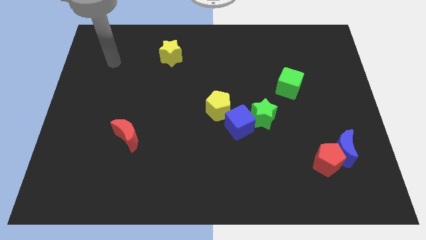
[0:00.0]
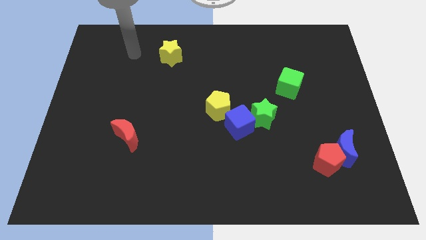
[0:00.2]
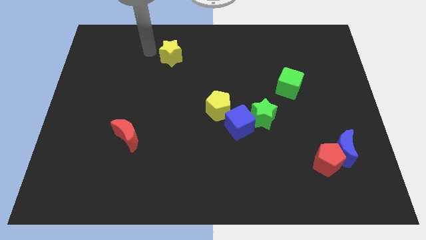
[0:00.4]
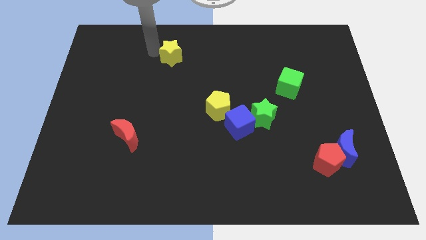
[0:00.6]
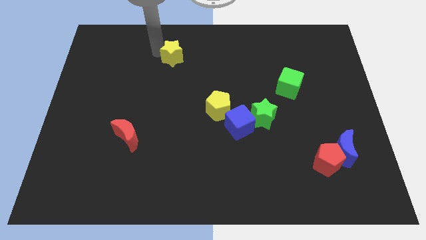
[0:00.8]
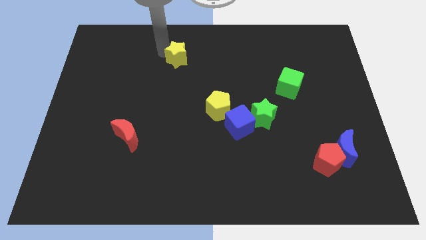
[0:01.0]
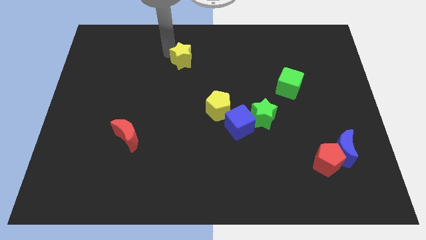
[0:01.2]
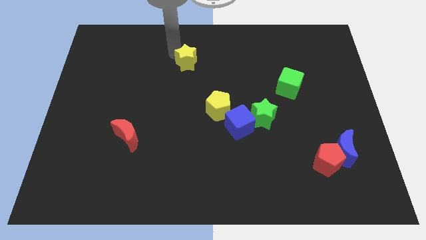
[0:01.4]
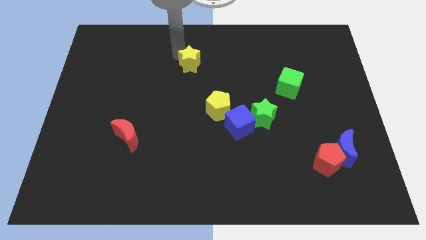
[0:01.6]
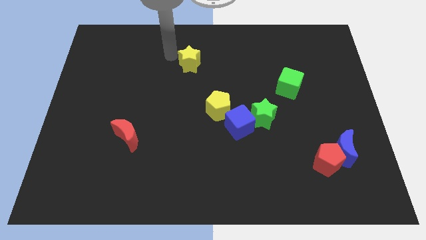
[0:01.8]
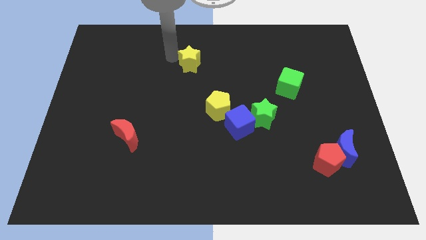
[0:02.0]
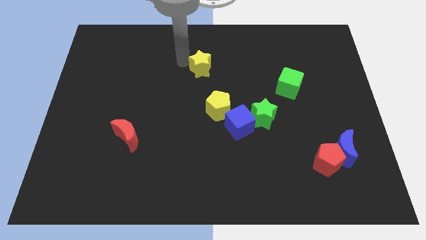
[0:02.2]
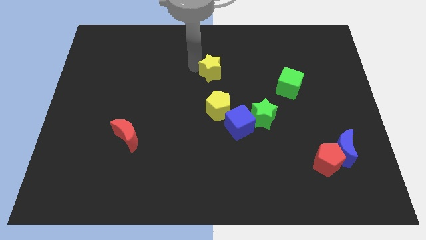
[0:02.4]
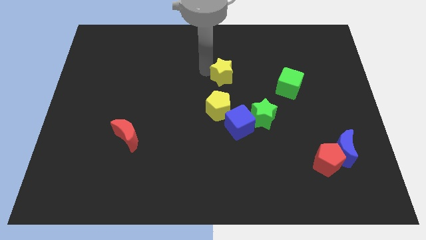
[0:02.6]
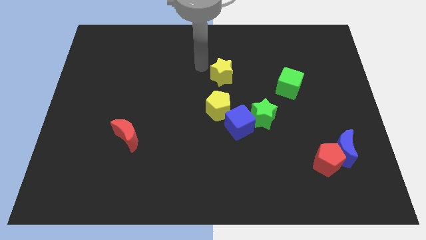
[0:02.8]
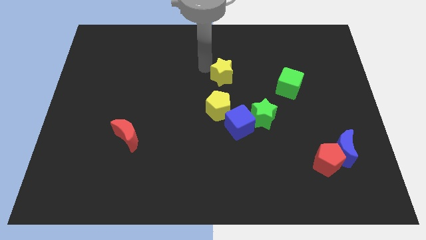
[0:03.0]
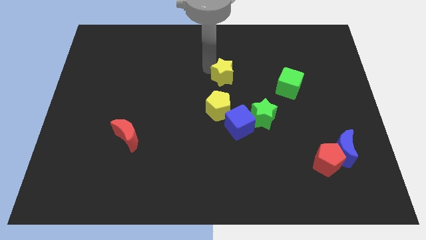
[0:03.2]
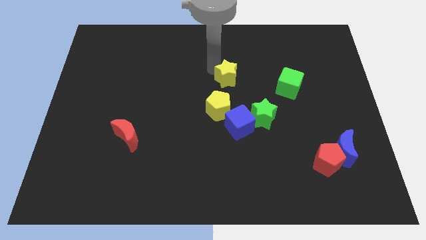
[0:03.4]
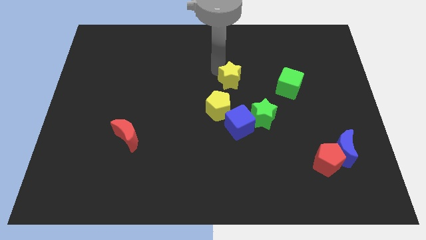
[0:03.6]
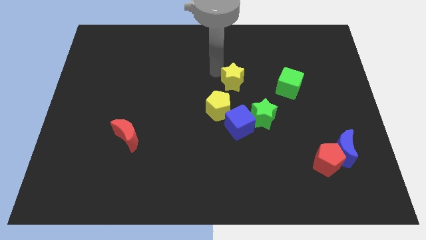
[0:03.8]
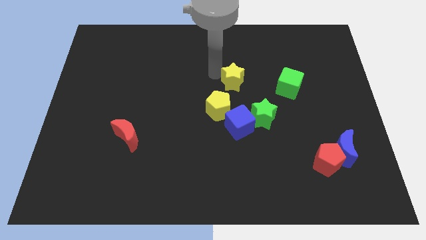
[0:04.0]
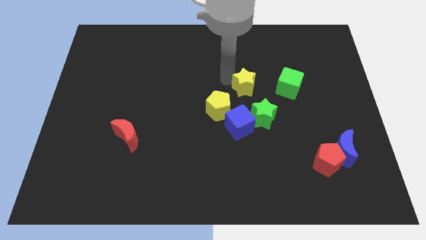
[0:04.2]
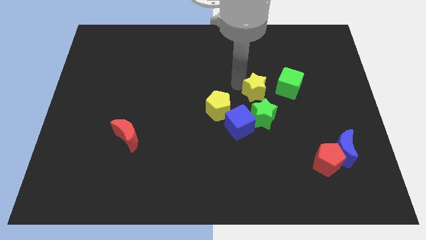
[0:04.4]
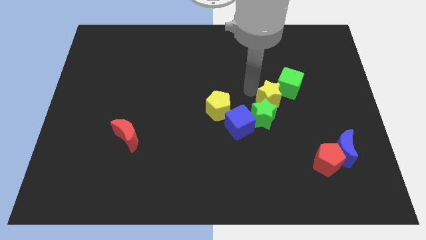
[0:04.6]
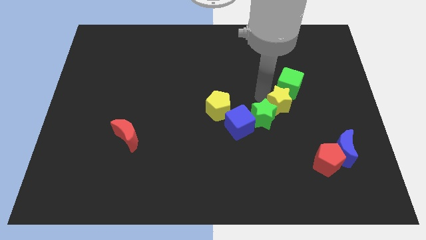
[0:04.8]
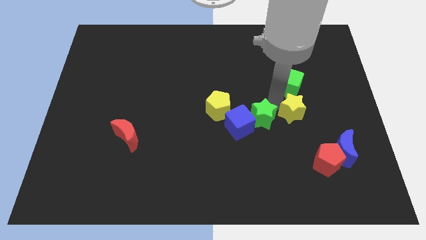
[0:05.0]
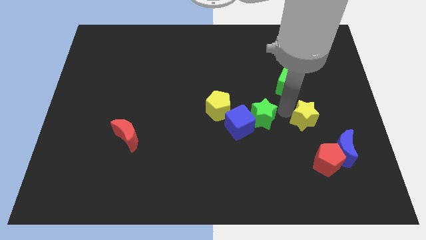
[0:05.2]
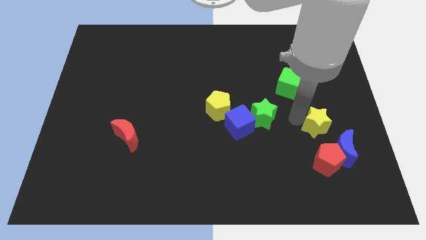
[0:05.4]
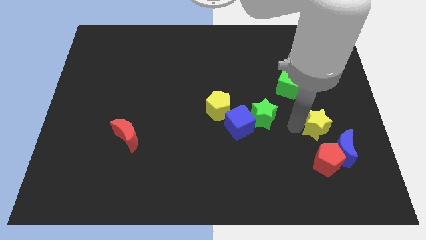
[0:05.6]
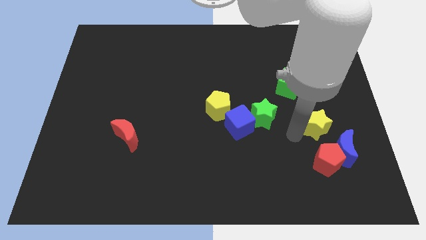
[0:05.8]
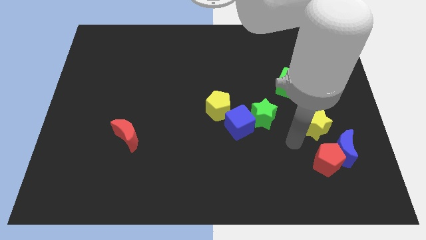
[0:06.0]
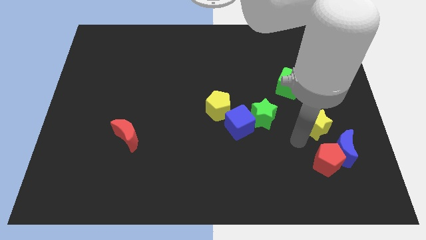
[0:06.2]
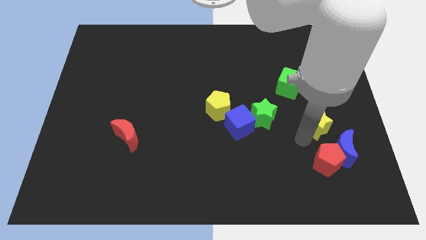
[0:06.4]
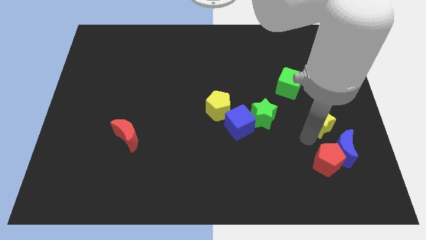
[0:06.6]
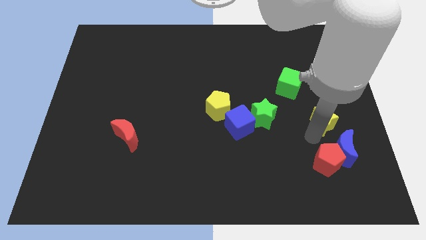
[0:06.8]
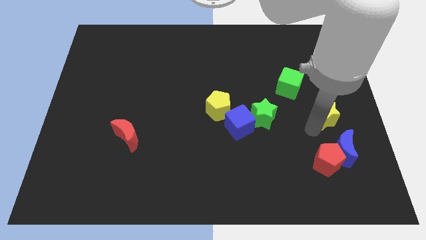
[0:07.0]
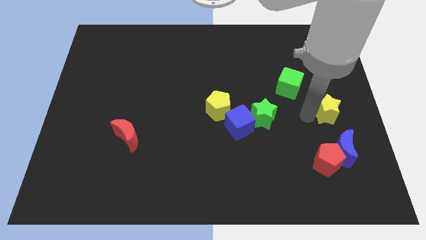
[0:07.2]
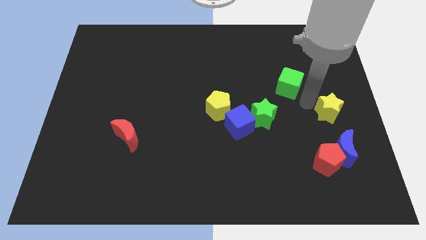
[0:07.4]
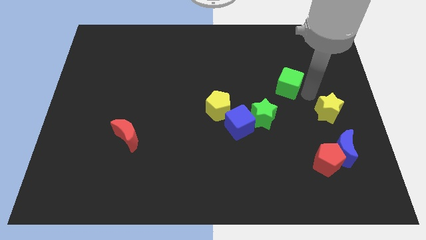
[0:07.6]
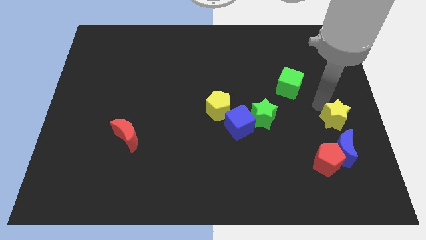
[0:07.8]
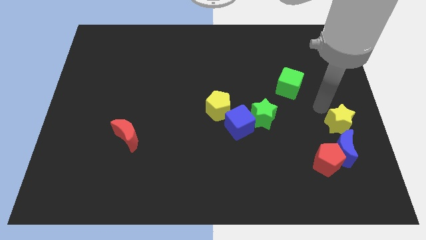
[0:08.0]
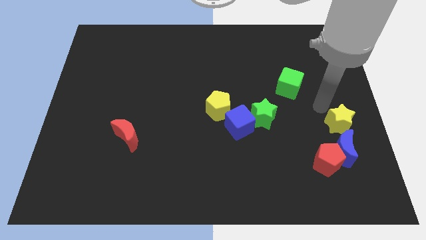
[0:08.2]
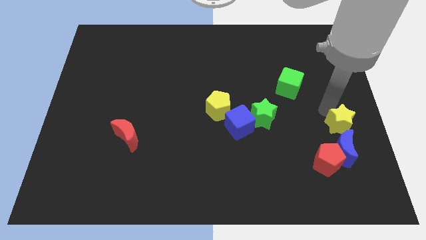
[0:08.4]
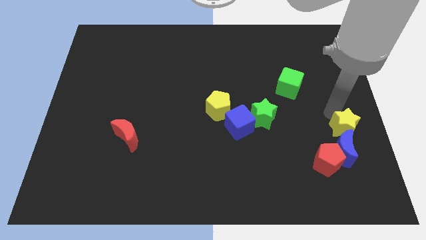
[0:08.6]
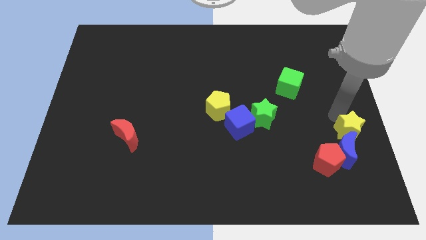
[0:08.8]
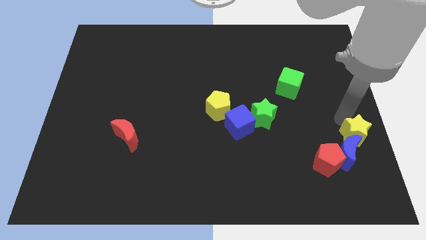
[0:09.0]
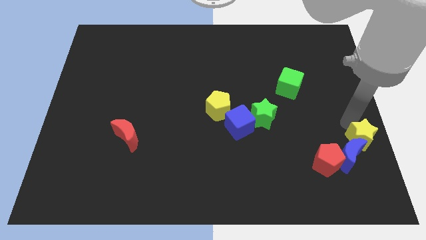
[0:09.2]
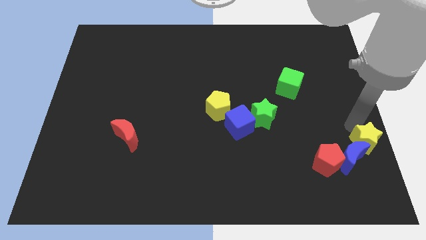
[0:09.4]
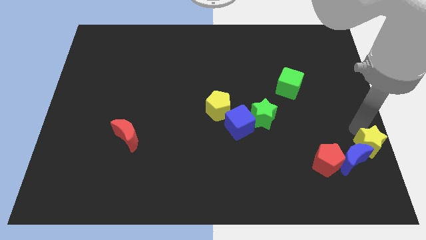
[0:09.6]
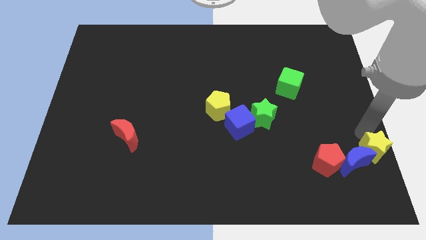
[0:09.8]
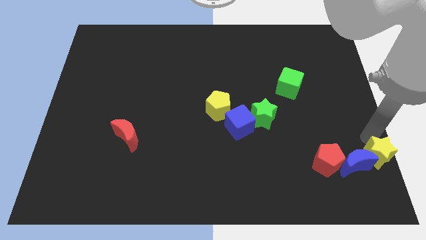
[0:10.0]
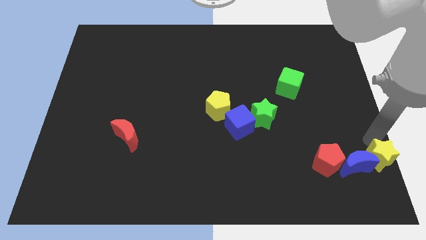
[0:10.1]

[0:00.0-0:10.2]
push the yellow star to the lower right corner

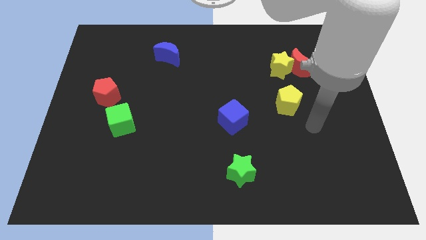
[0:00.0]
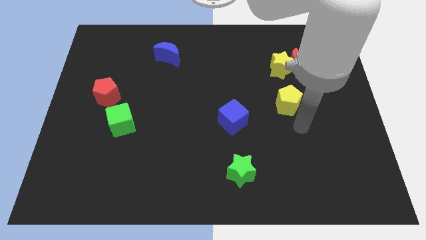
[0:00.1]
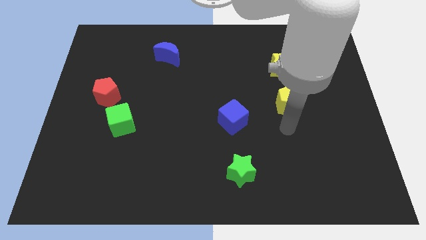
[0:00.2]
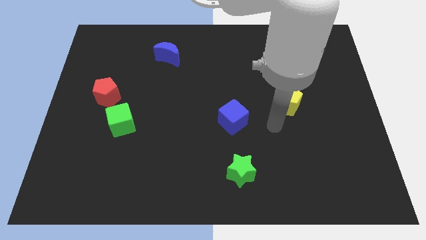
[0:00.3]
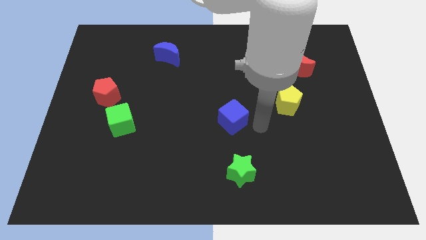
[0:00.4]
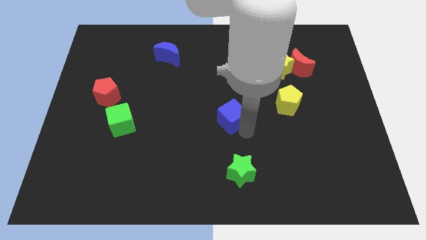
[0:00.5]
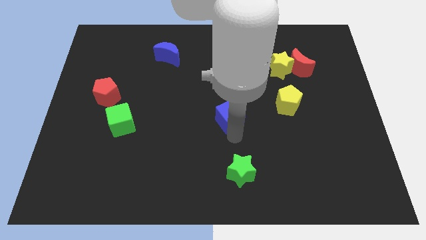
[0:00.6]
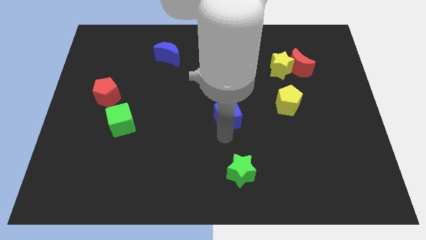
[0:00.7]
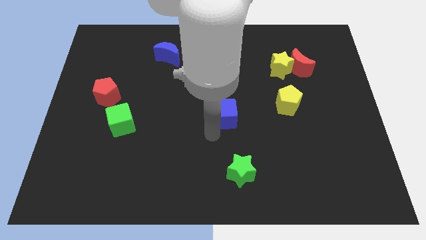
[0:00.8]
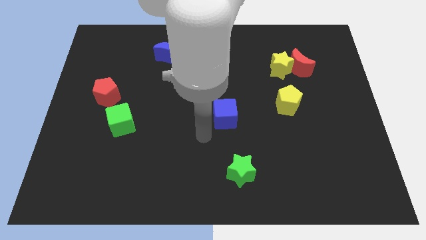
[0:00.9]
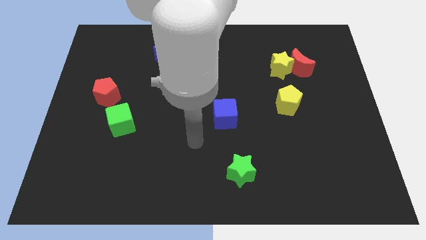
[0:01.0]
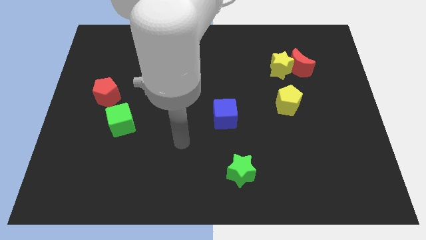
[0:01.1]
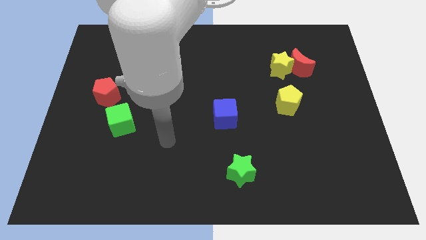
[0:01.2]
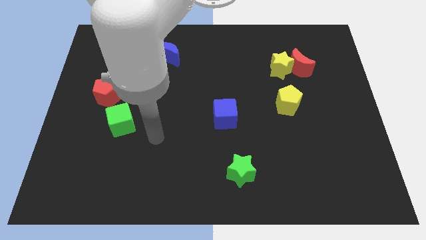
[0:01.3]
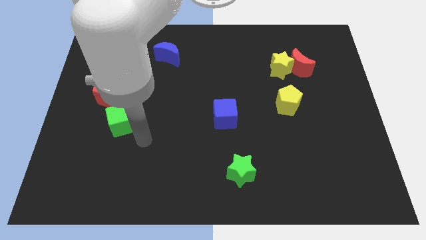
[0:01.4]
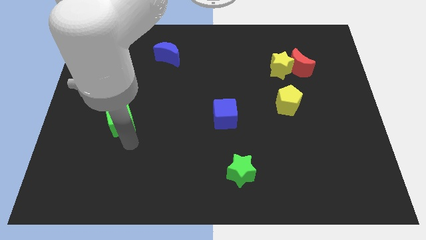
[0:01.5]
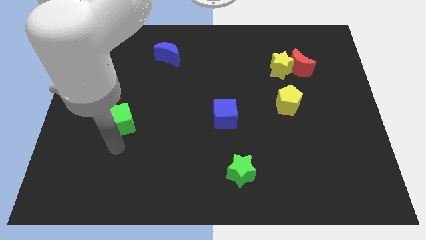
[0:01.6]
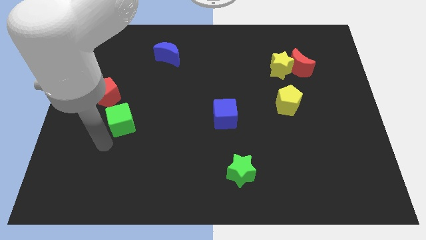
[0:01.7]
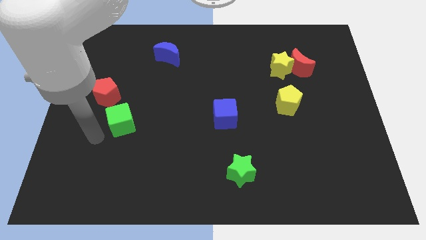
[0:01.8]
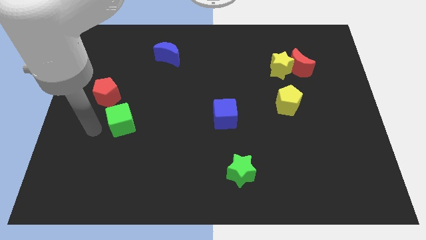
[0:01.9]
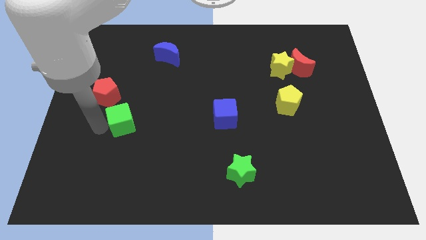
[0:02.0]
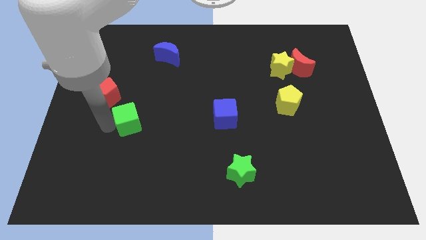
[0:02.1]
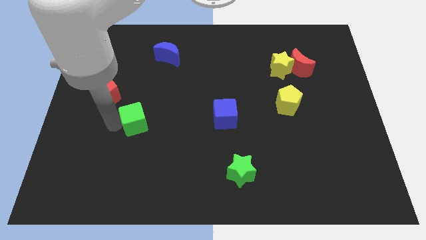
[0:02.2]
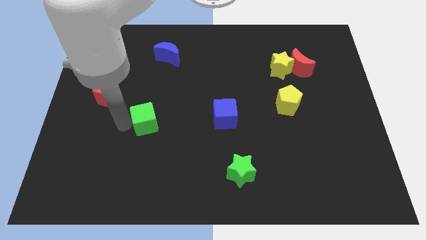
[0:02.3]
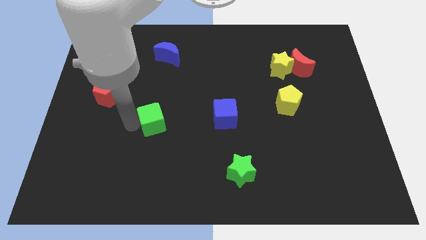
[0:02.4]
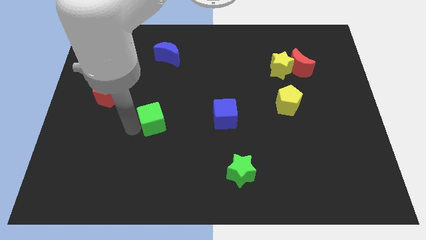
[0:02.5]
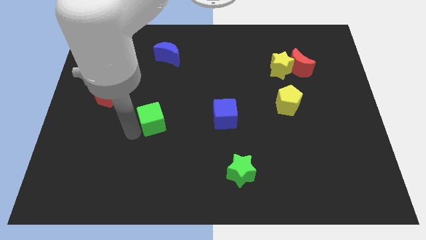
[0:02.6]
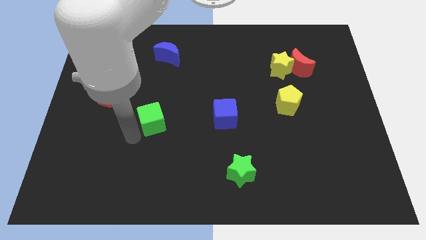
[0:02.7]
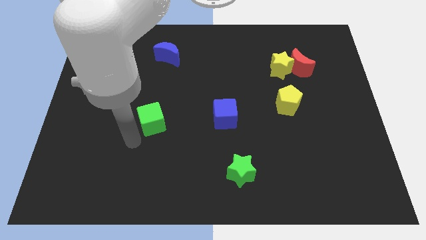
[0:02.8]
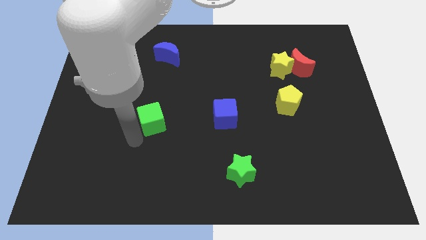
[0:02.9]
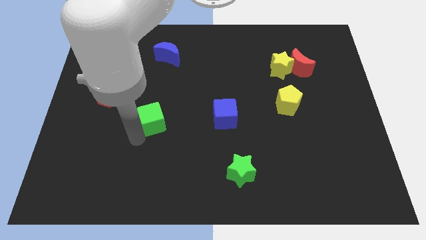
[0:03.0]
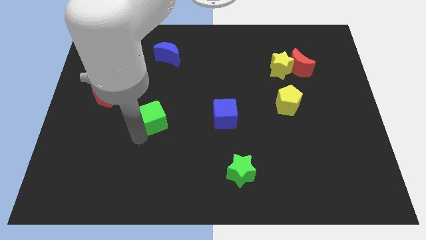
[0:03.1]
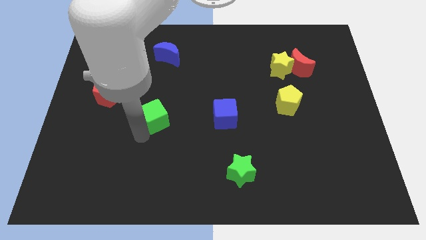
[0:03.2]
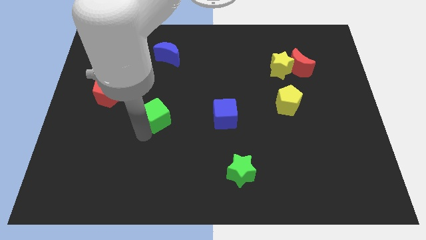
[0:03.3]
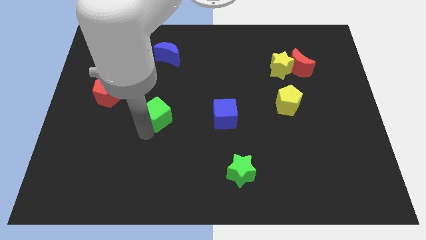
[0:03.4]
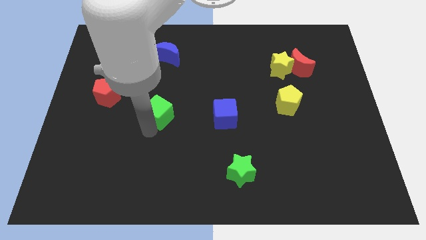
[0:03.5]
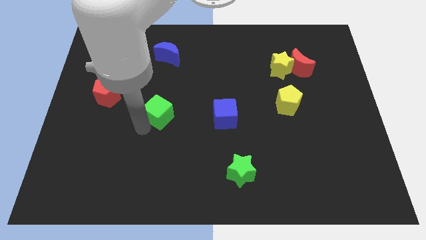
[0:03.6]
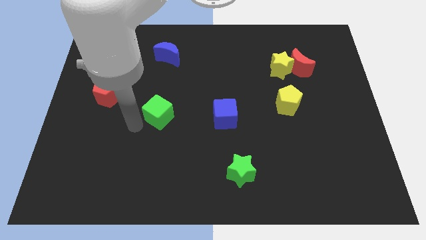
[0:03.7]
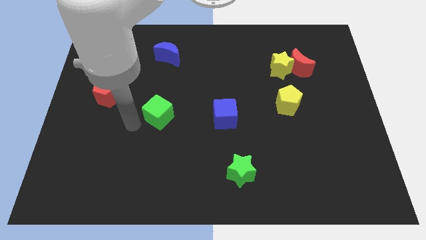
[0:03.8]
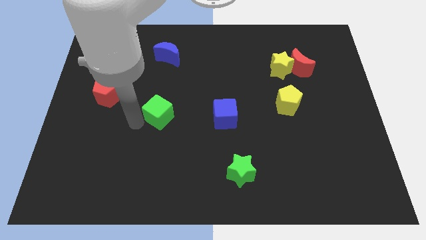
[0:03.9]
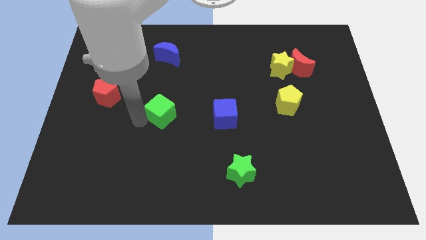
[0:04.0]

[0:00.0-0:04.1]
put the green cube to the middle of the board
